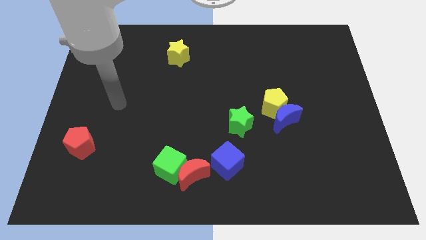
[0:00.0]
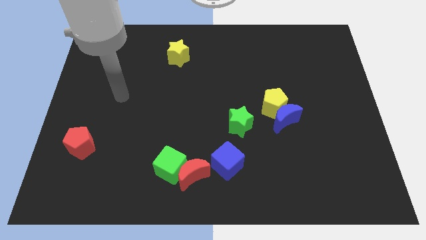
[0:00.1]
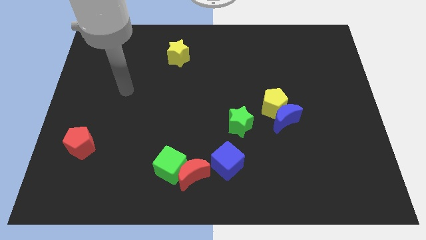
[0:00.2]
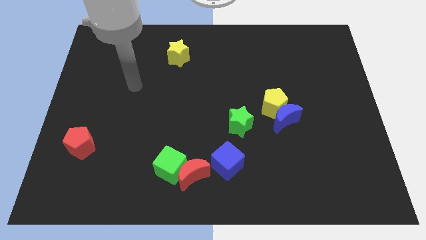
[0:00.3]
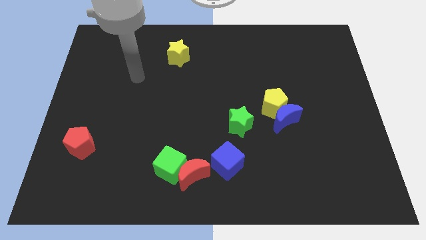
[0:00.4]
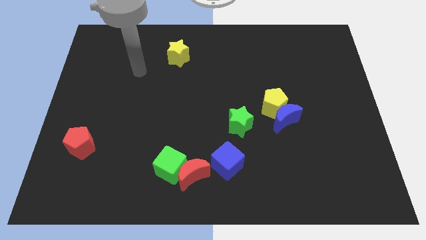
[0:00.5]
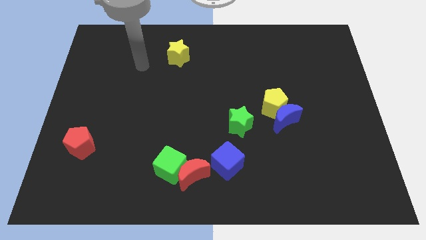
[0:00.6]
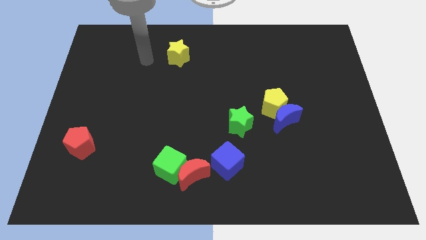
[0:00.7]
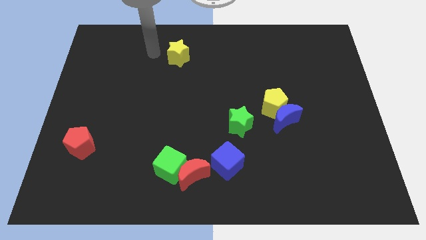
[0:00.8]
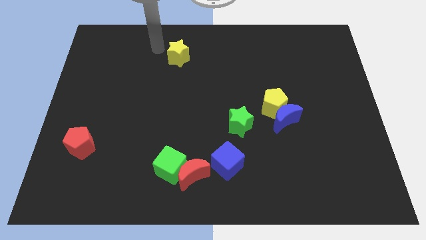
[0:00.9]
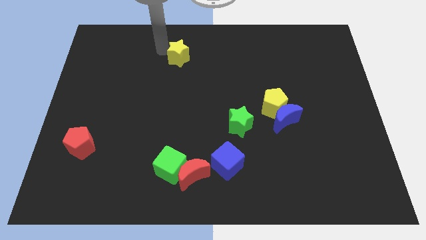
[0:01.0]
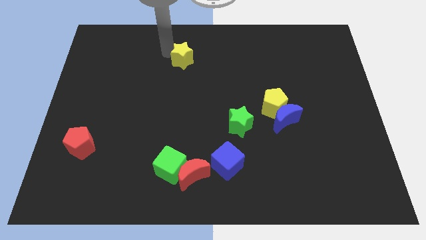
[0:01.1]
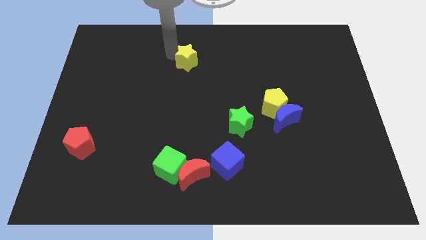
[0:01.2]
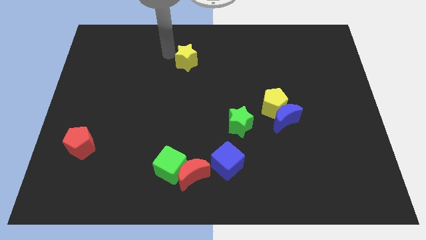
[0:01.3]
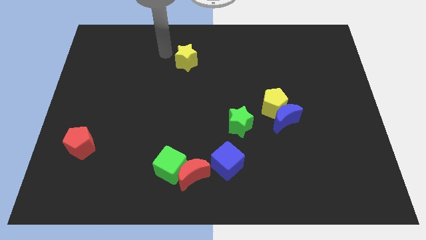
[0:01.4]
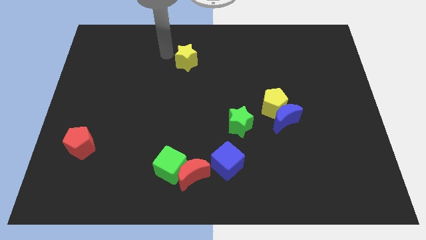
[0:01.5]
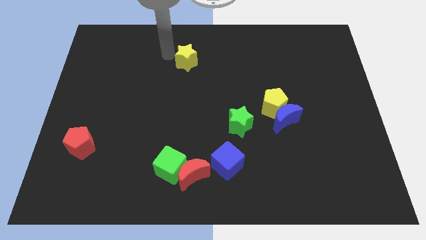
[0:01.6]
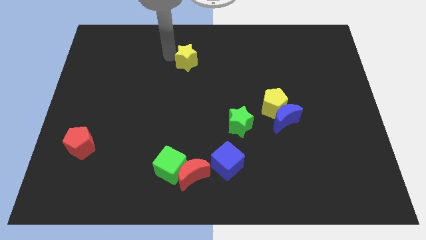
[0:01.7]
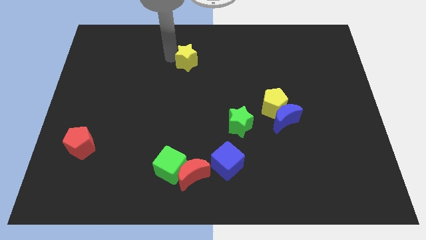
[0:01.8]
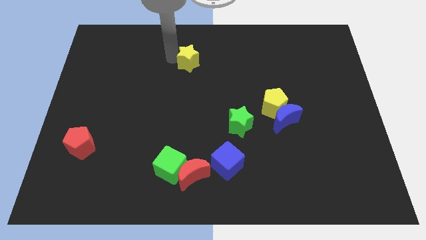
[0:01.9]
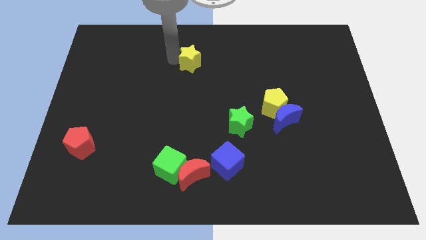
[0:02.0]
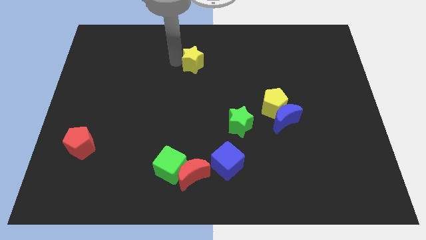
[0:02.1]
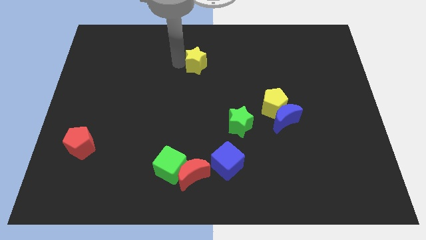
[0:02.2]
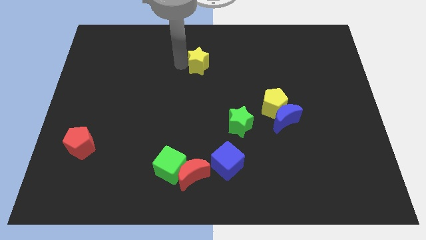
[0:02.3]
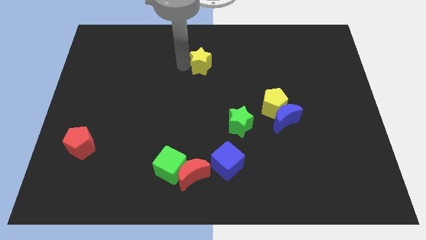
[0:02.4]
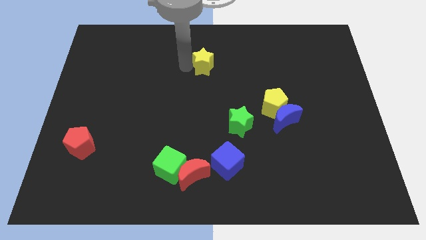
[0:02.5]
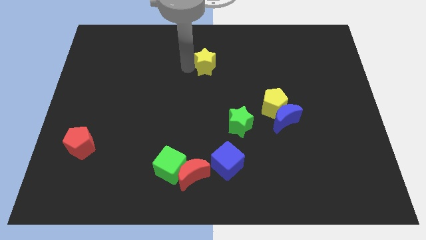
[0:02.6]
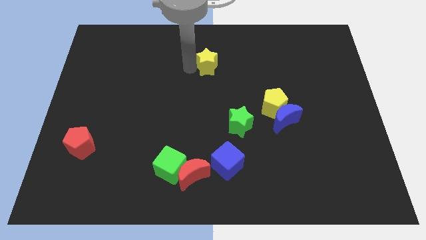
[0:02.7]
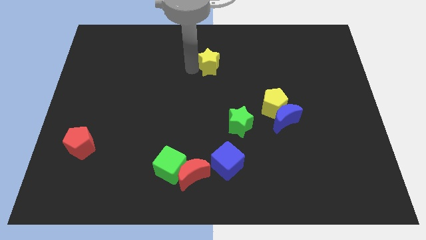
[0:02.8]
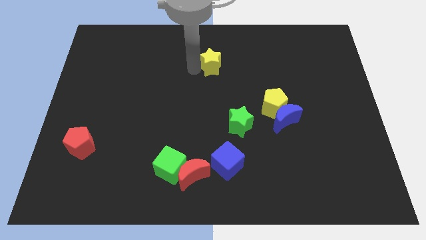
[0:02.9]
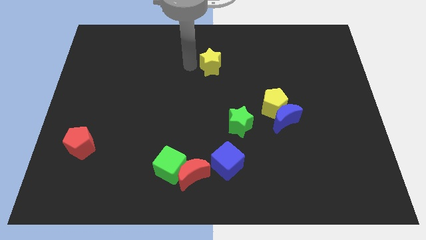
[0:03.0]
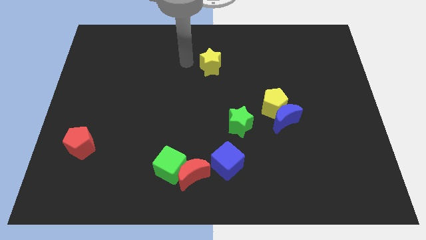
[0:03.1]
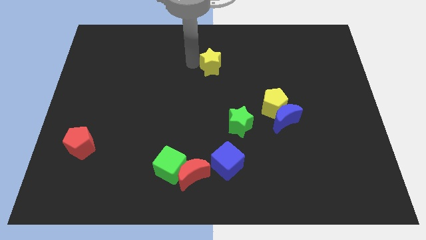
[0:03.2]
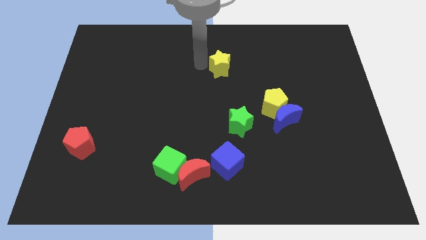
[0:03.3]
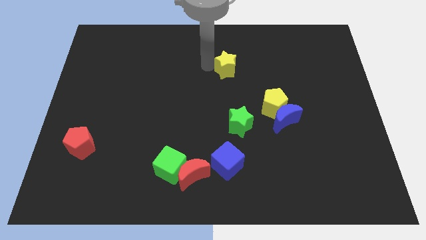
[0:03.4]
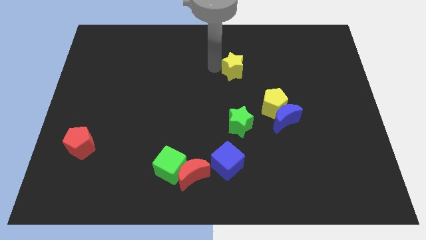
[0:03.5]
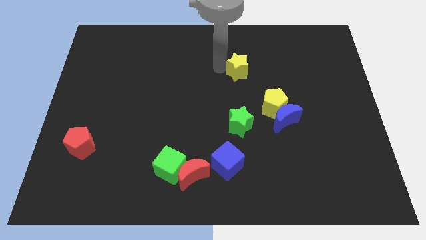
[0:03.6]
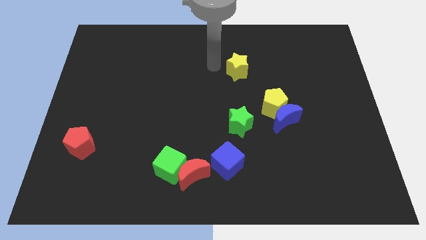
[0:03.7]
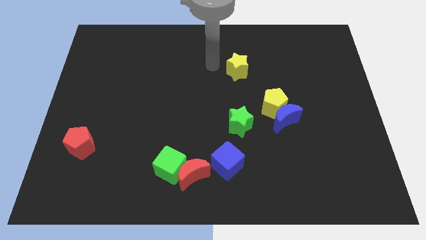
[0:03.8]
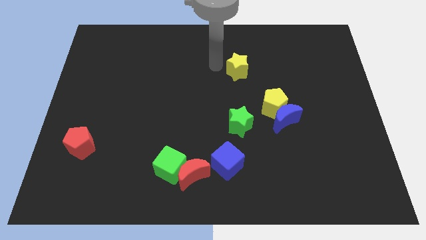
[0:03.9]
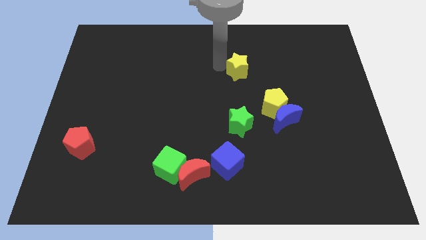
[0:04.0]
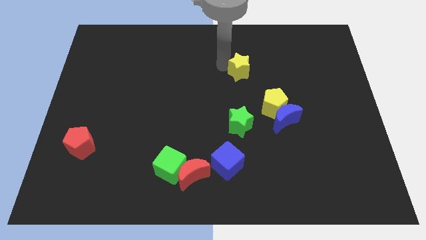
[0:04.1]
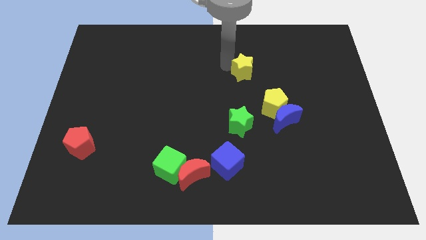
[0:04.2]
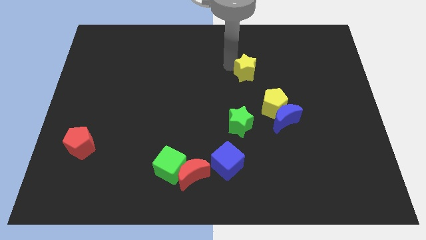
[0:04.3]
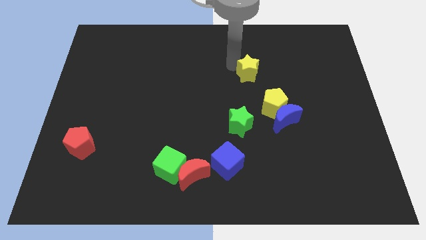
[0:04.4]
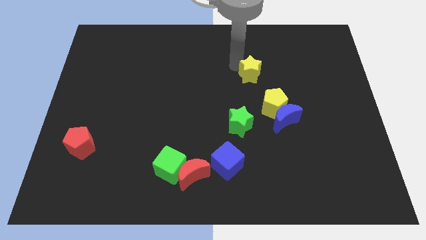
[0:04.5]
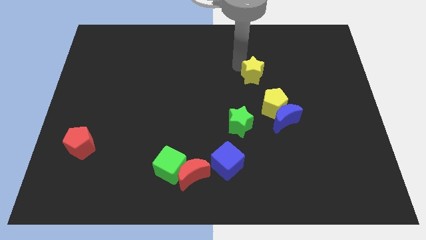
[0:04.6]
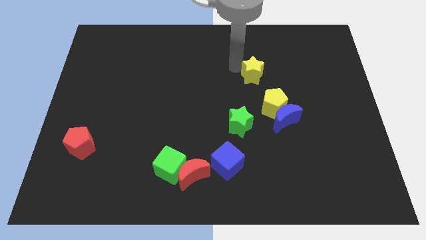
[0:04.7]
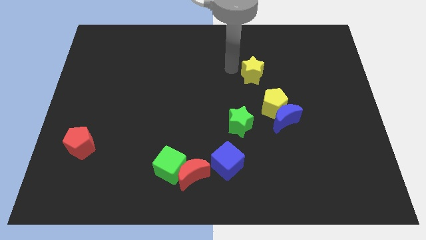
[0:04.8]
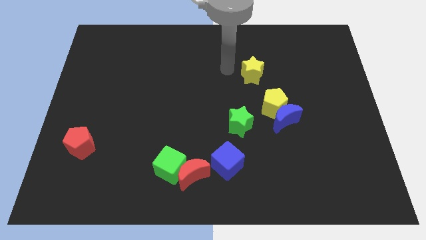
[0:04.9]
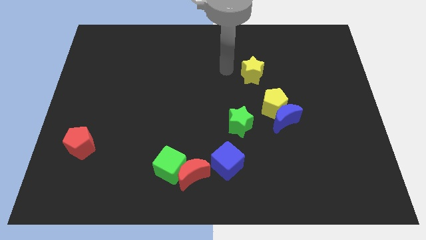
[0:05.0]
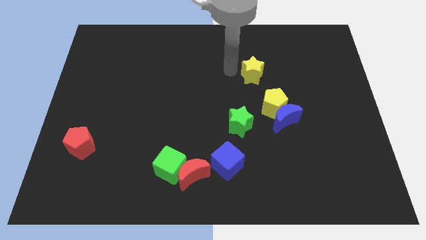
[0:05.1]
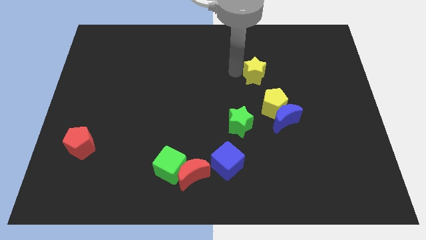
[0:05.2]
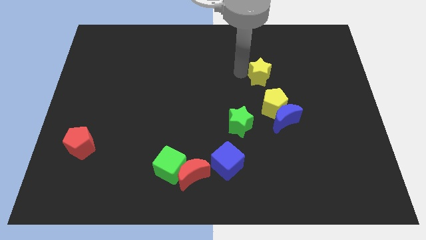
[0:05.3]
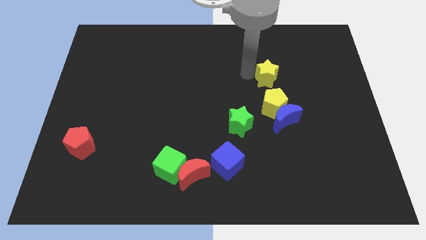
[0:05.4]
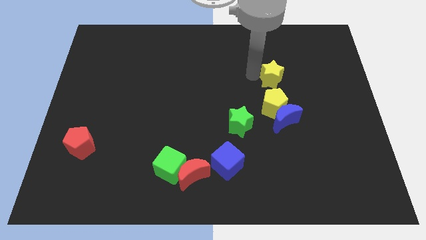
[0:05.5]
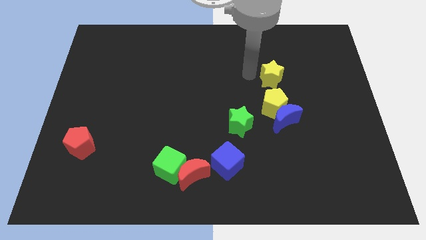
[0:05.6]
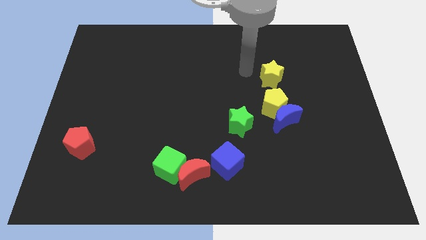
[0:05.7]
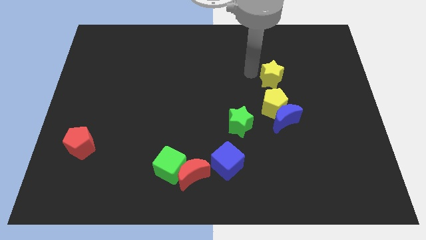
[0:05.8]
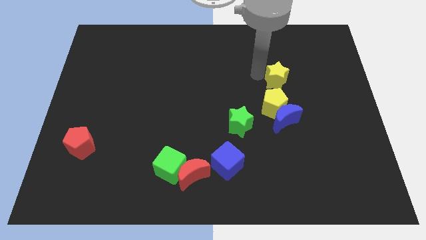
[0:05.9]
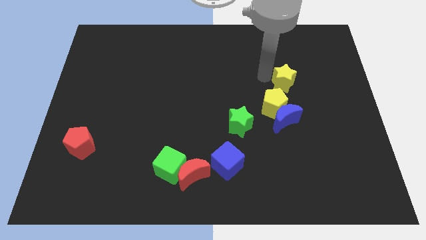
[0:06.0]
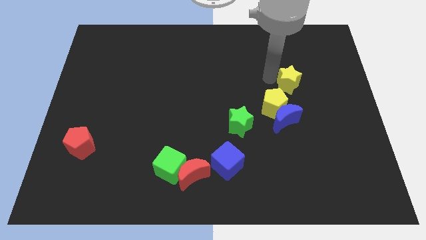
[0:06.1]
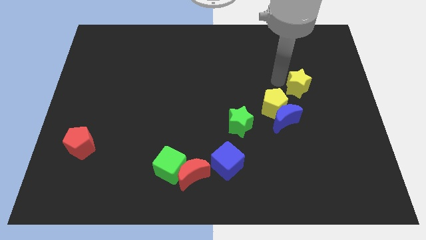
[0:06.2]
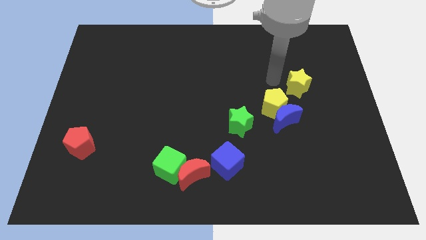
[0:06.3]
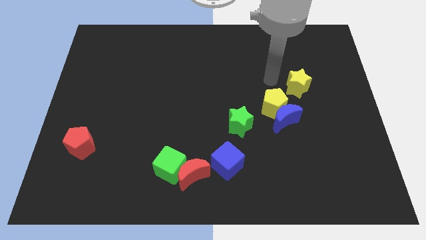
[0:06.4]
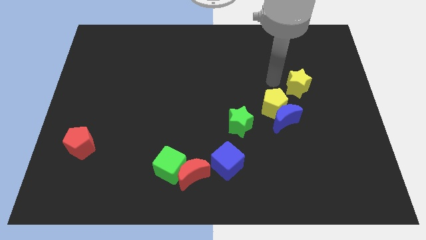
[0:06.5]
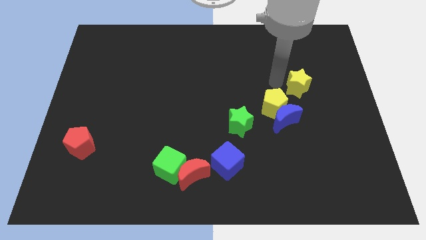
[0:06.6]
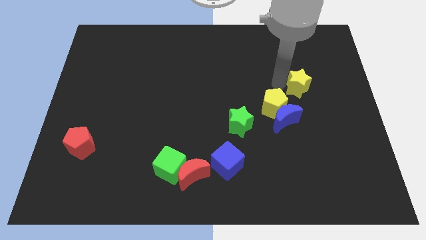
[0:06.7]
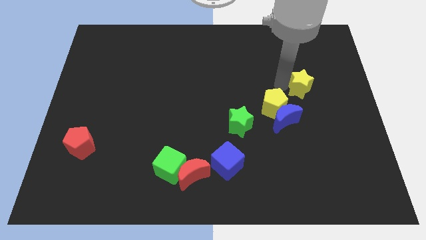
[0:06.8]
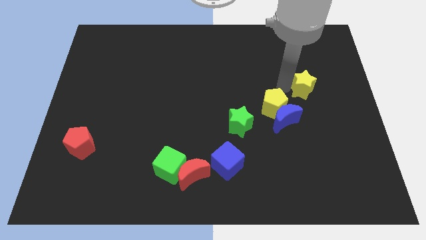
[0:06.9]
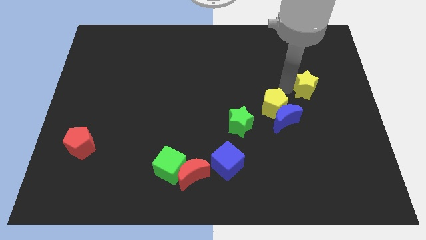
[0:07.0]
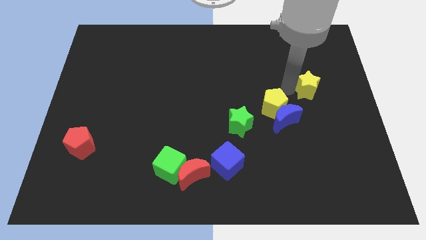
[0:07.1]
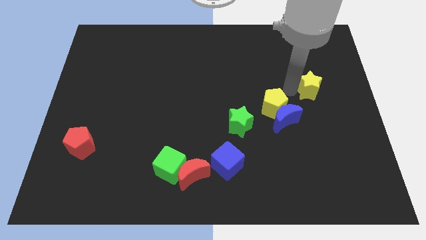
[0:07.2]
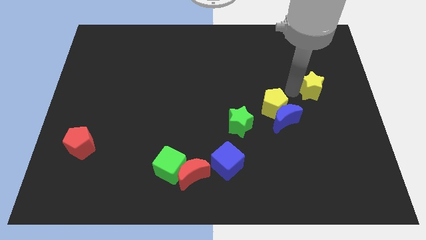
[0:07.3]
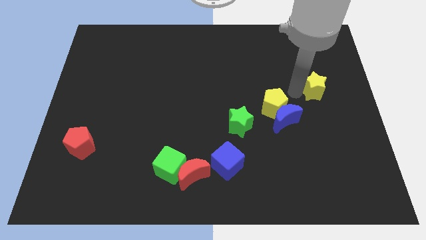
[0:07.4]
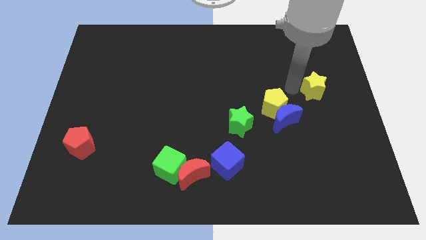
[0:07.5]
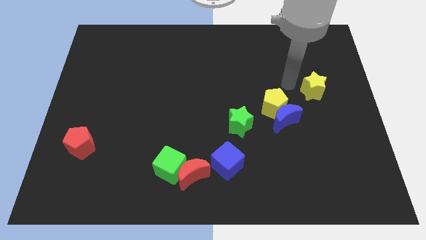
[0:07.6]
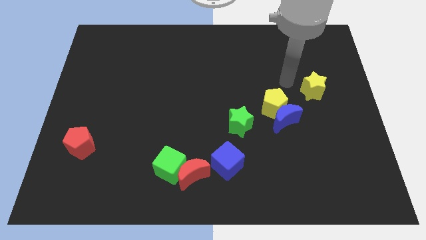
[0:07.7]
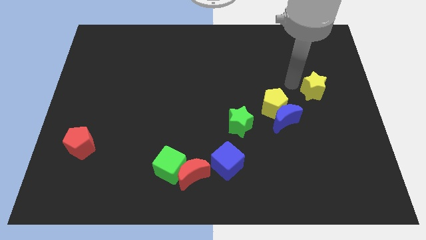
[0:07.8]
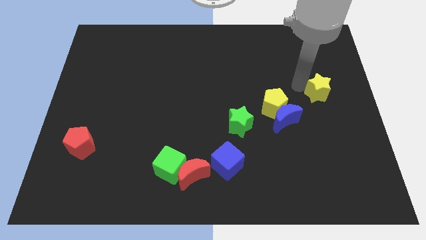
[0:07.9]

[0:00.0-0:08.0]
move the yellow star to the right side
